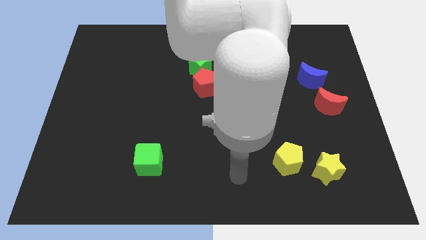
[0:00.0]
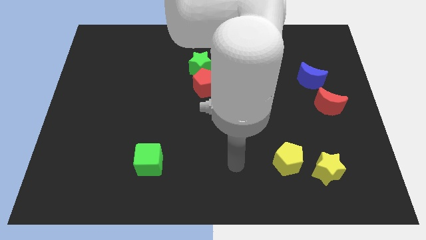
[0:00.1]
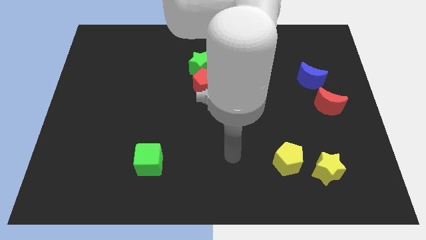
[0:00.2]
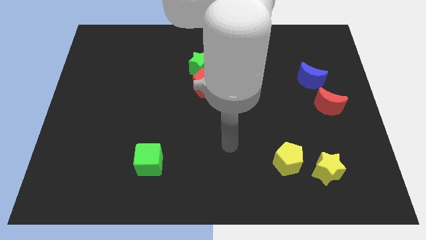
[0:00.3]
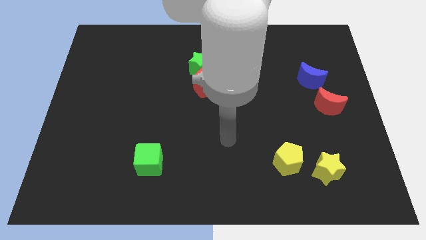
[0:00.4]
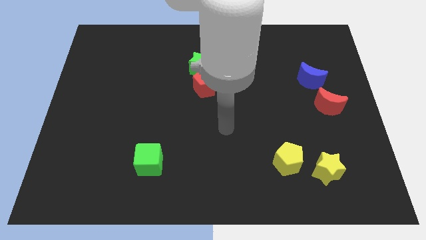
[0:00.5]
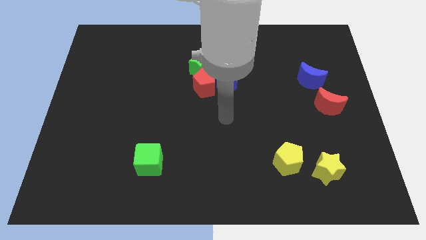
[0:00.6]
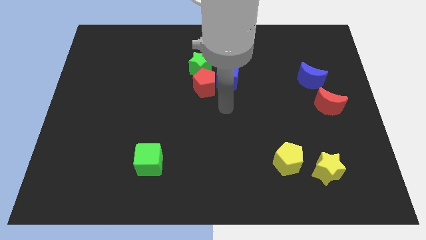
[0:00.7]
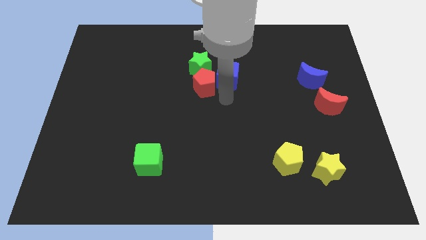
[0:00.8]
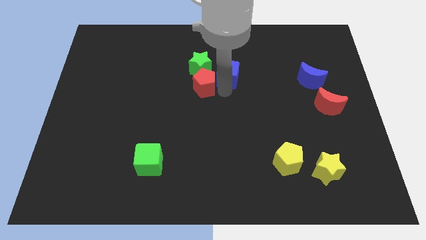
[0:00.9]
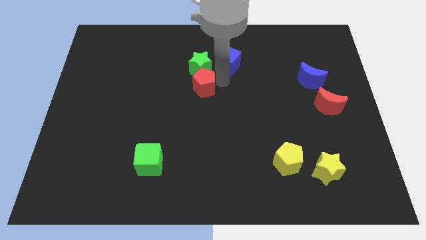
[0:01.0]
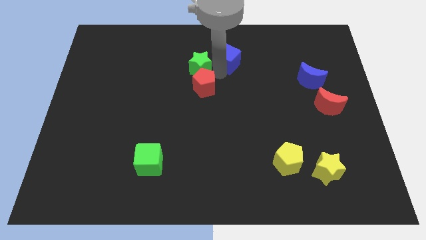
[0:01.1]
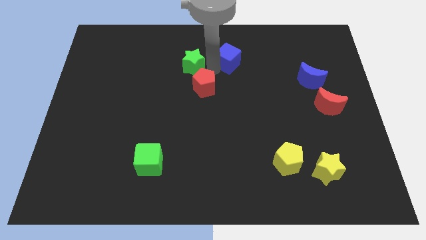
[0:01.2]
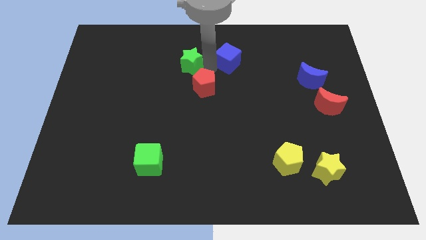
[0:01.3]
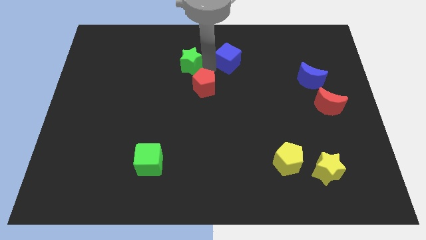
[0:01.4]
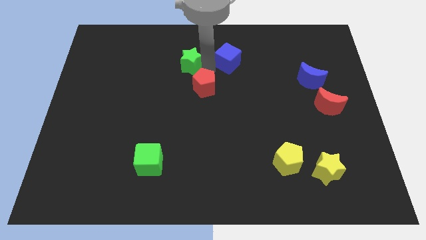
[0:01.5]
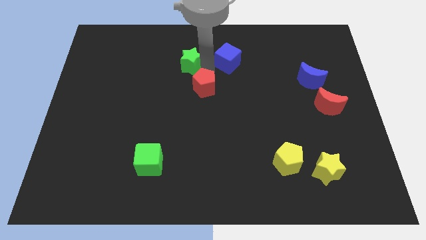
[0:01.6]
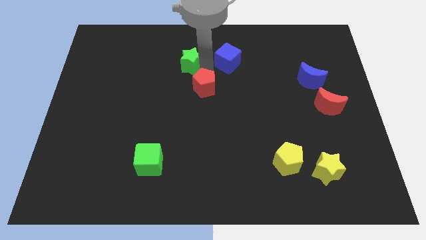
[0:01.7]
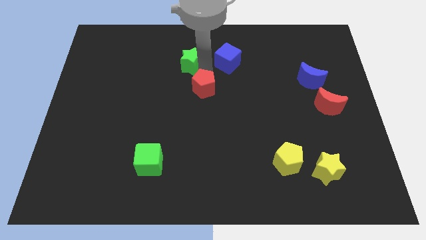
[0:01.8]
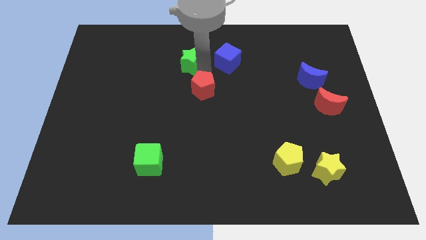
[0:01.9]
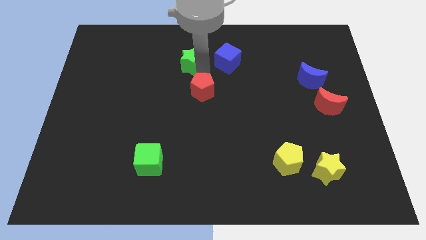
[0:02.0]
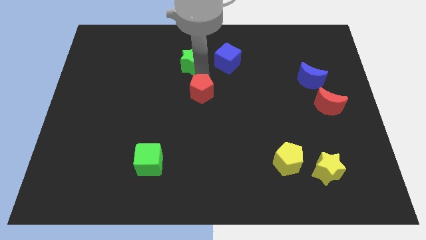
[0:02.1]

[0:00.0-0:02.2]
pull the red pentagon apart from the blue cube and green star

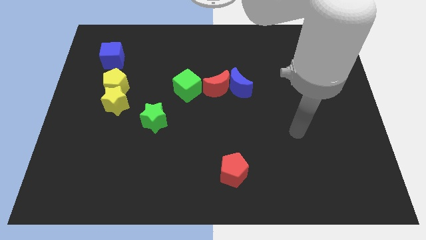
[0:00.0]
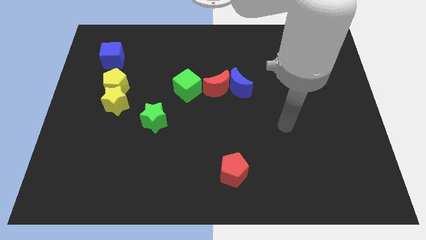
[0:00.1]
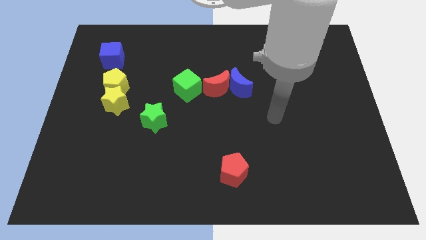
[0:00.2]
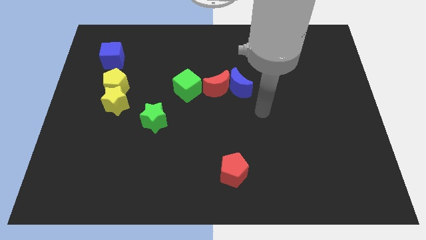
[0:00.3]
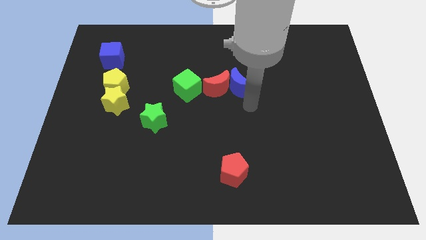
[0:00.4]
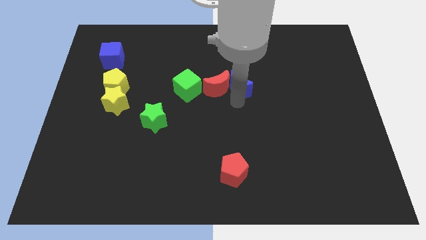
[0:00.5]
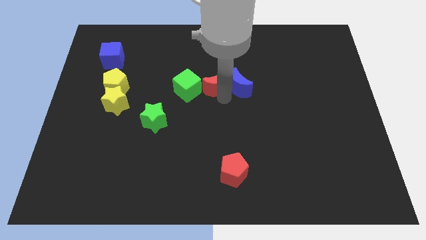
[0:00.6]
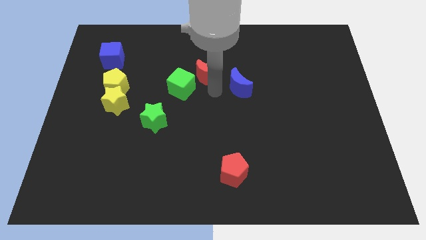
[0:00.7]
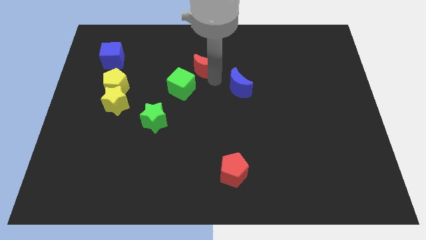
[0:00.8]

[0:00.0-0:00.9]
pull the blue moon apart from the red moon

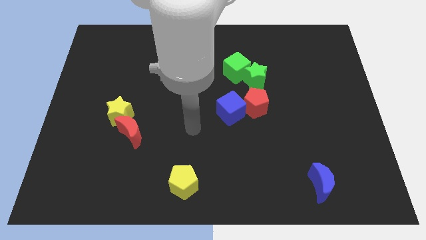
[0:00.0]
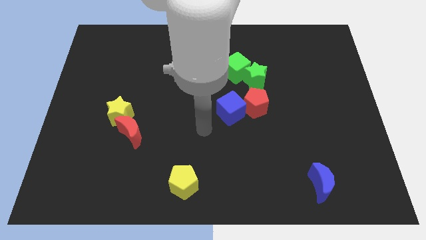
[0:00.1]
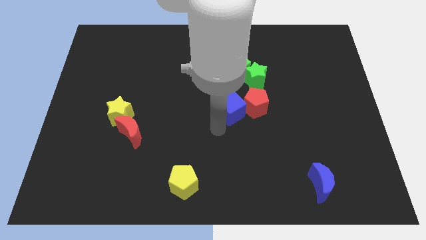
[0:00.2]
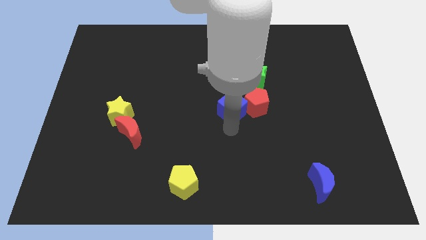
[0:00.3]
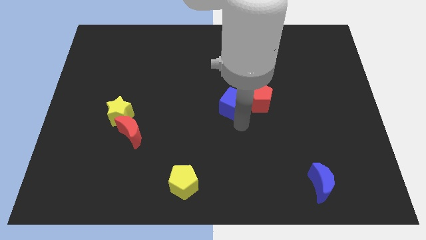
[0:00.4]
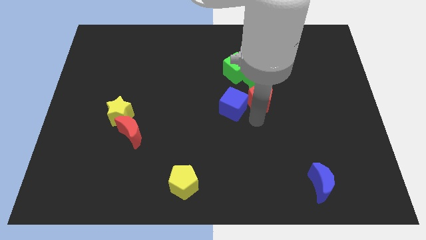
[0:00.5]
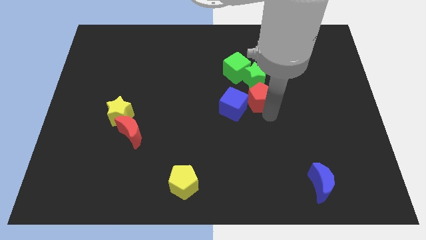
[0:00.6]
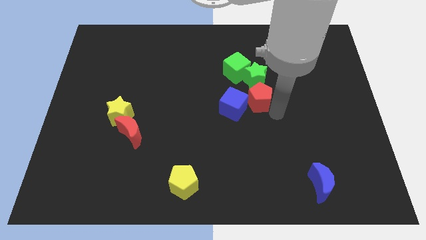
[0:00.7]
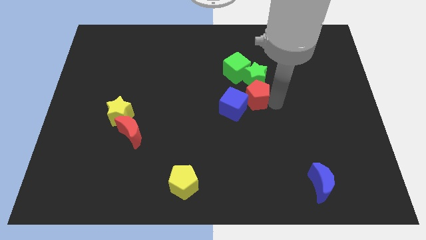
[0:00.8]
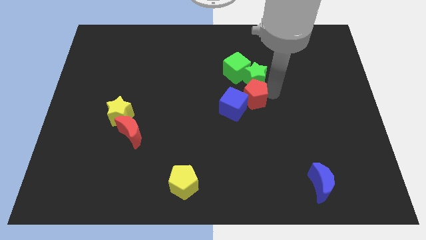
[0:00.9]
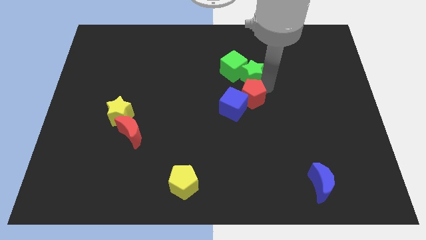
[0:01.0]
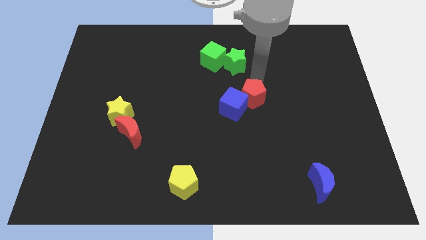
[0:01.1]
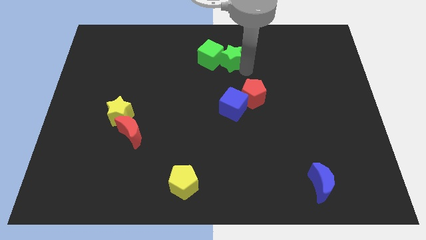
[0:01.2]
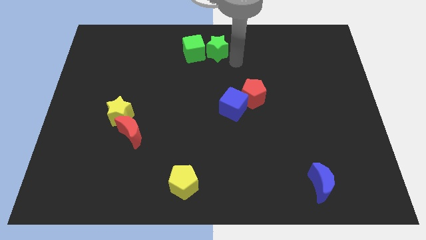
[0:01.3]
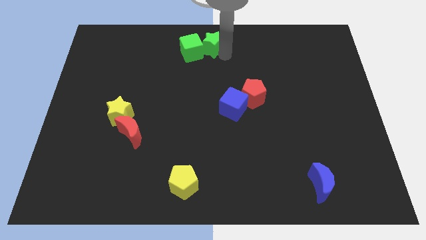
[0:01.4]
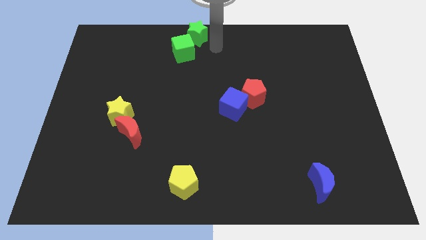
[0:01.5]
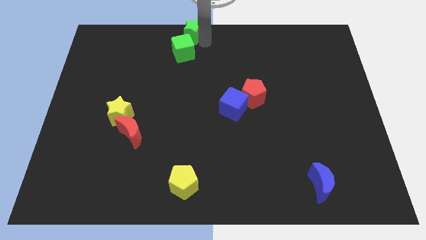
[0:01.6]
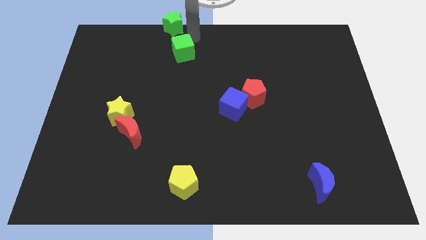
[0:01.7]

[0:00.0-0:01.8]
pull the green cube apart from the green star

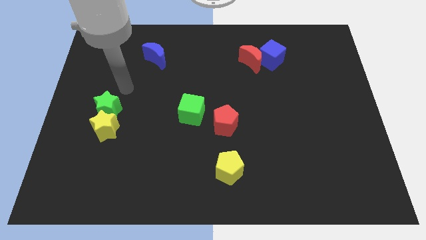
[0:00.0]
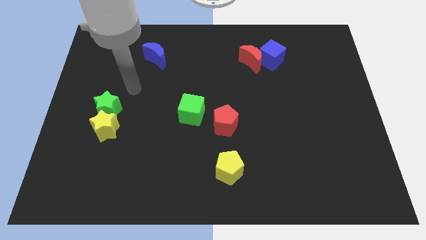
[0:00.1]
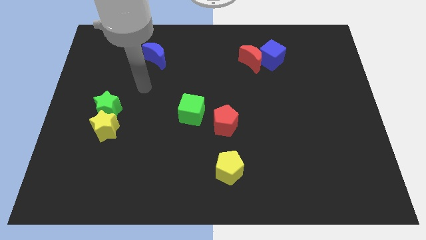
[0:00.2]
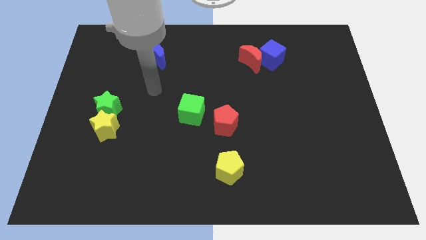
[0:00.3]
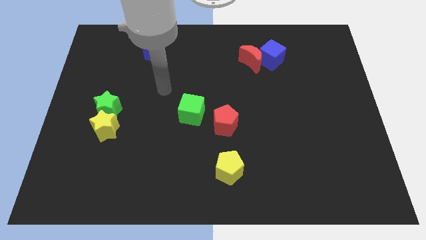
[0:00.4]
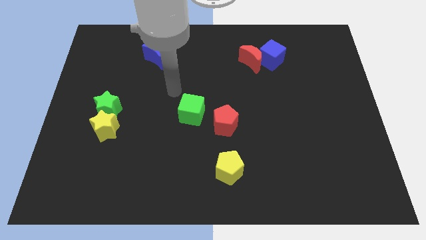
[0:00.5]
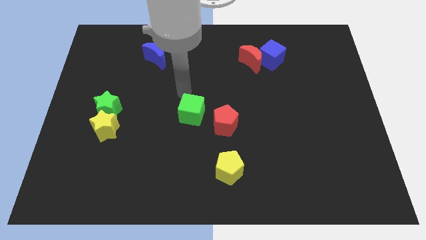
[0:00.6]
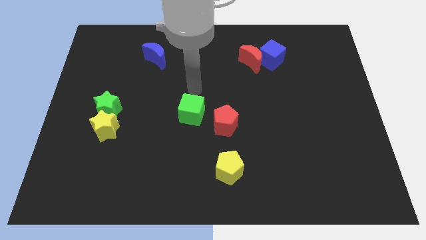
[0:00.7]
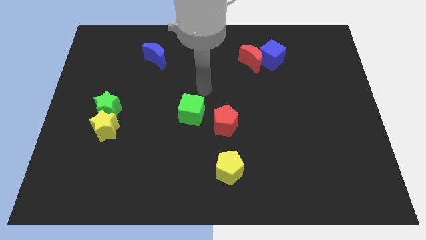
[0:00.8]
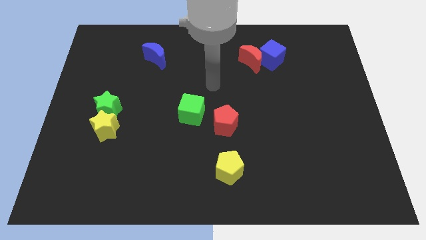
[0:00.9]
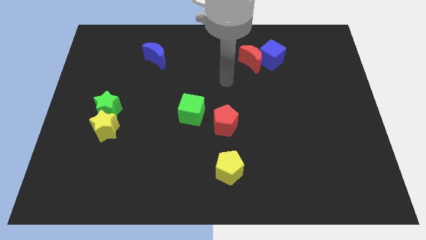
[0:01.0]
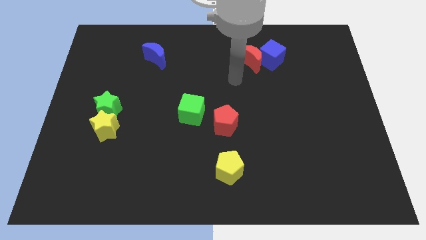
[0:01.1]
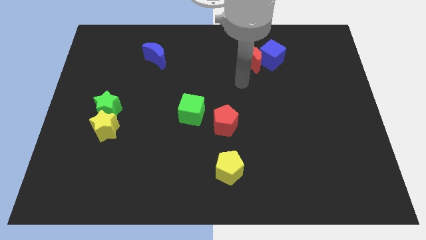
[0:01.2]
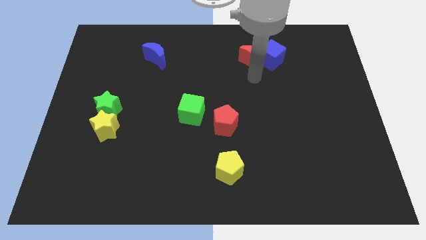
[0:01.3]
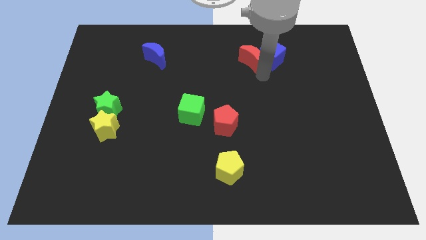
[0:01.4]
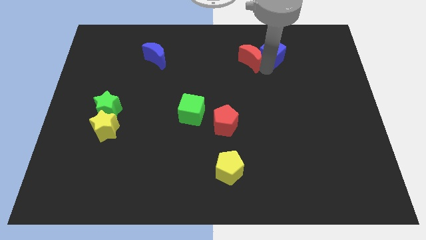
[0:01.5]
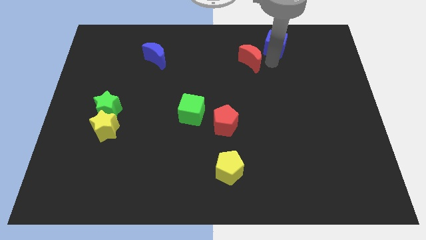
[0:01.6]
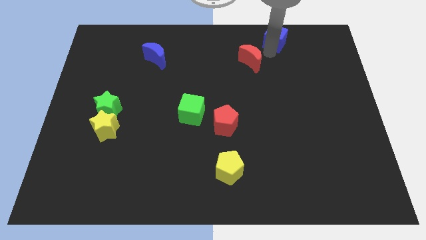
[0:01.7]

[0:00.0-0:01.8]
separate the red moon from the blue cube

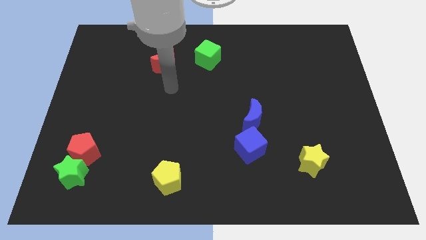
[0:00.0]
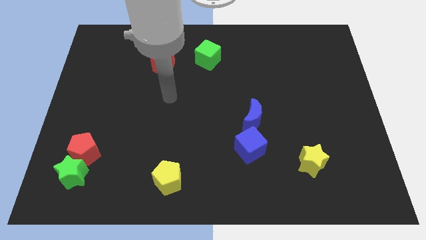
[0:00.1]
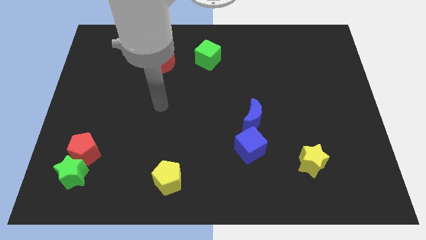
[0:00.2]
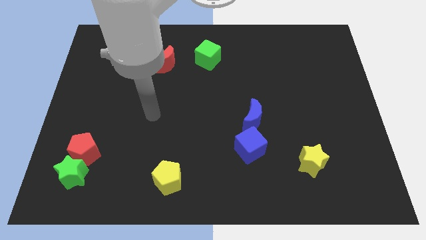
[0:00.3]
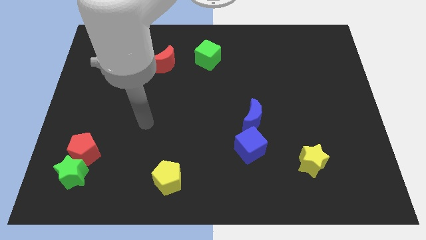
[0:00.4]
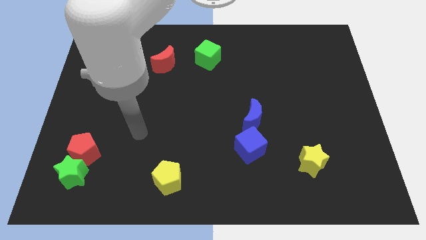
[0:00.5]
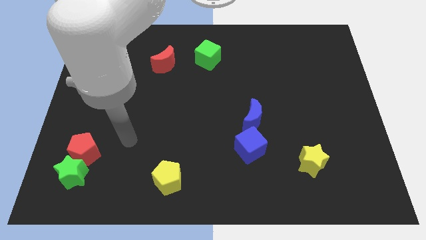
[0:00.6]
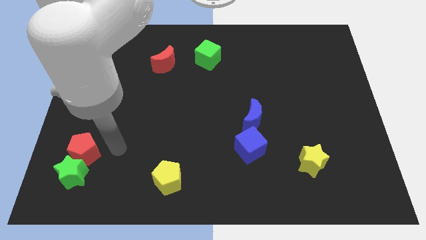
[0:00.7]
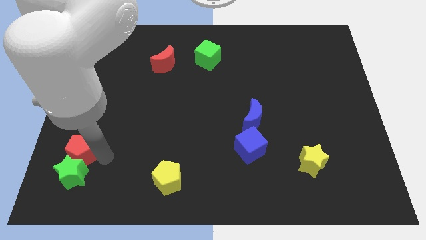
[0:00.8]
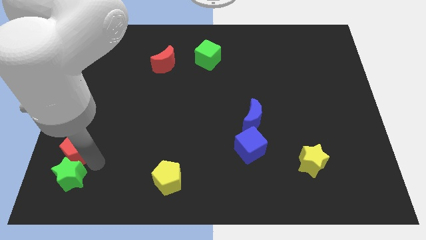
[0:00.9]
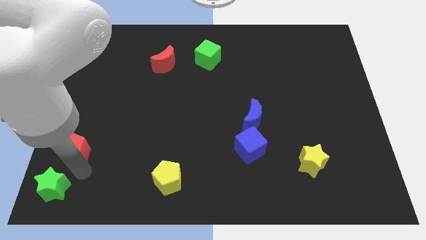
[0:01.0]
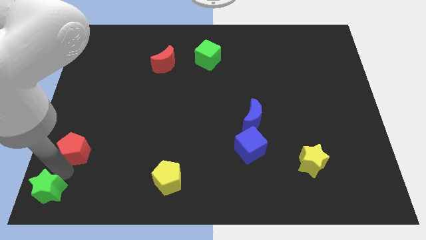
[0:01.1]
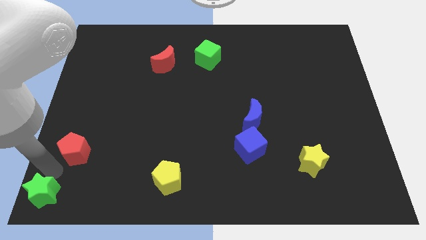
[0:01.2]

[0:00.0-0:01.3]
separate the red pentagon from the green star

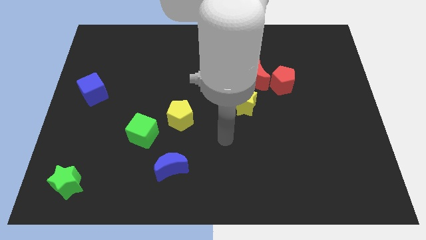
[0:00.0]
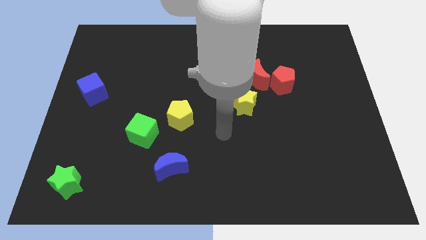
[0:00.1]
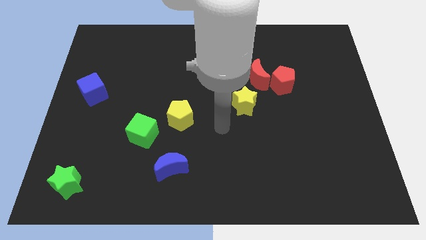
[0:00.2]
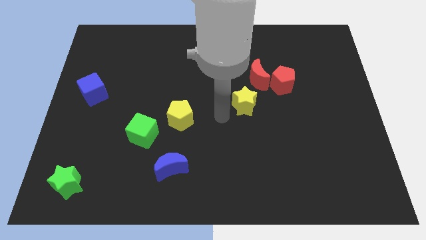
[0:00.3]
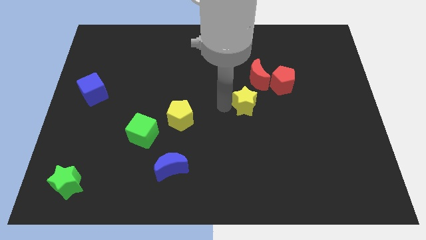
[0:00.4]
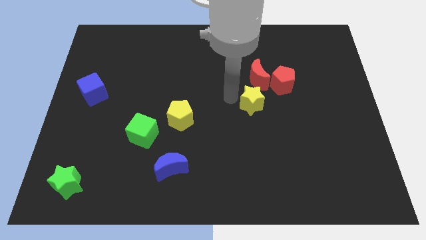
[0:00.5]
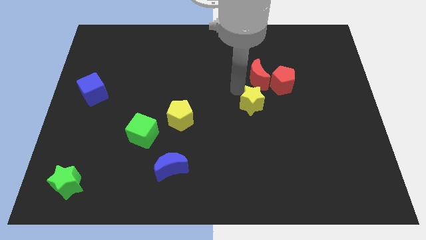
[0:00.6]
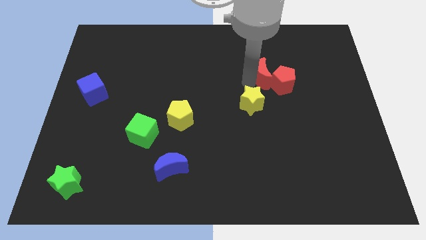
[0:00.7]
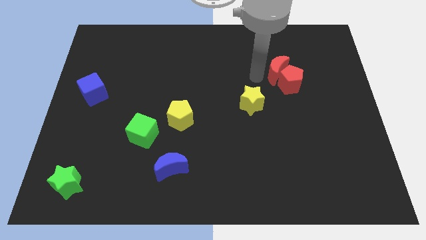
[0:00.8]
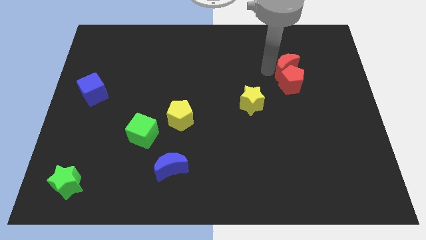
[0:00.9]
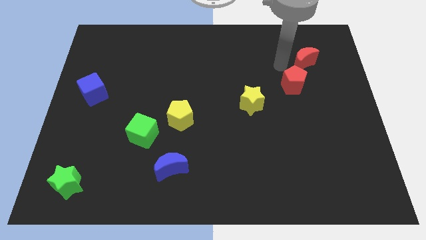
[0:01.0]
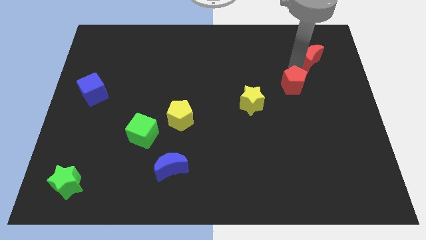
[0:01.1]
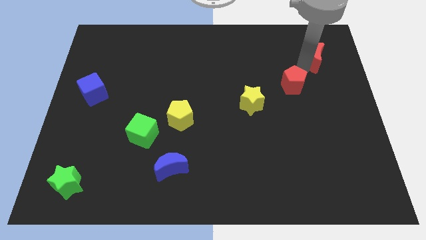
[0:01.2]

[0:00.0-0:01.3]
pull the red pentagon apart from the red moon

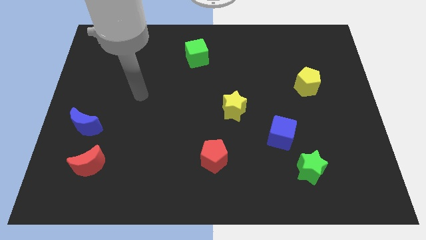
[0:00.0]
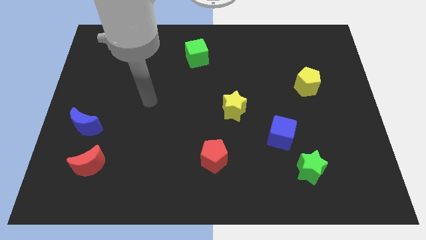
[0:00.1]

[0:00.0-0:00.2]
move the blue cube away from the green star
